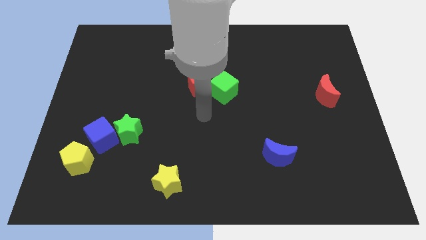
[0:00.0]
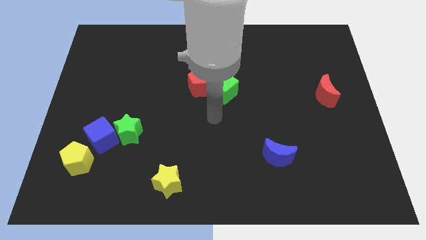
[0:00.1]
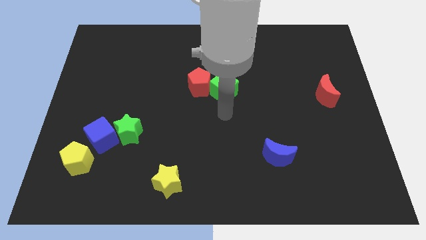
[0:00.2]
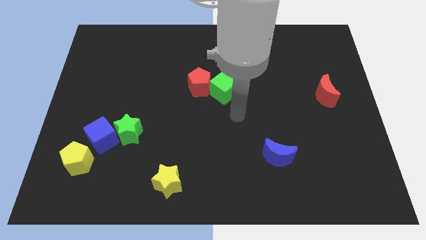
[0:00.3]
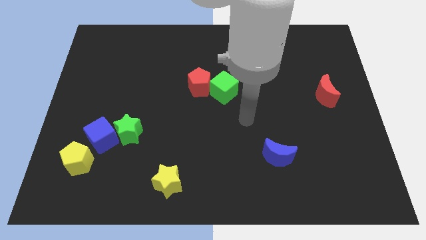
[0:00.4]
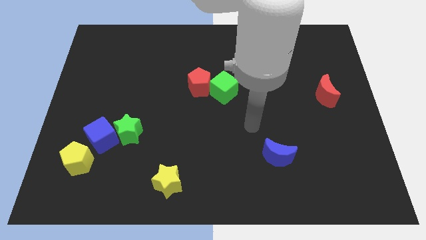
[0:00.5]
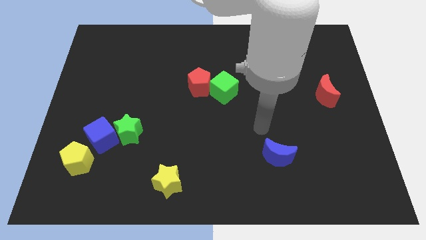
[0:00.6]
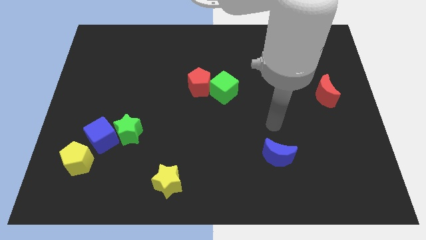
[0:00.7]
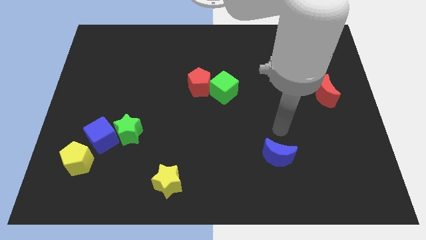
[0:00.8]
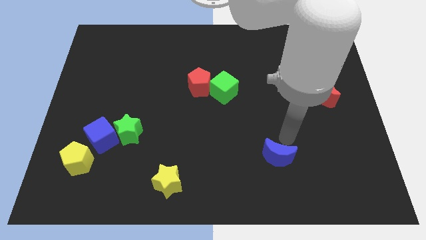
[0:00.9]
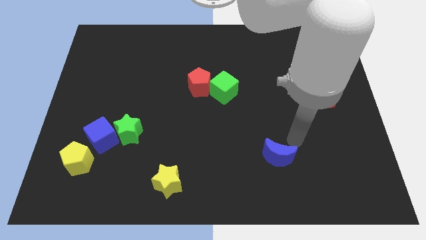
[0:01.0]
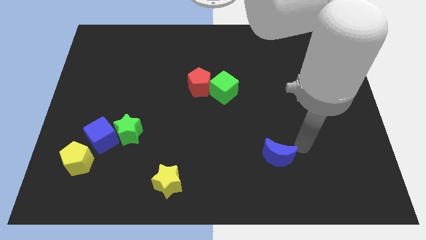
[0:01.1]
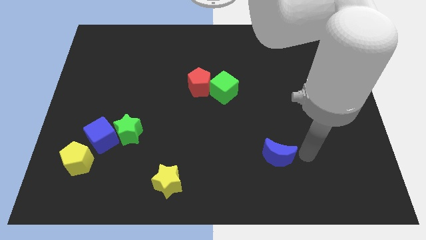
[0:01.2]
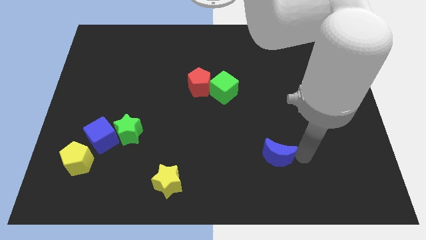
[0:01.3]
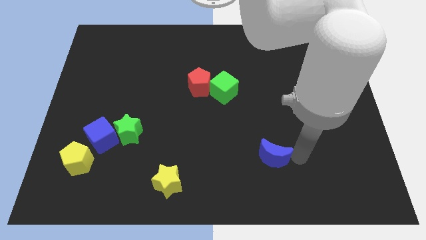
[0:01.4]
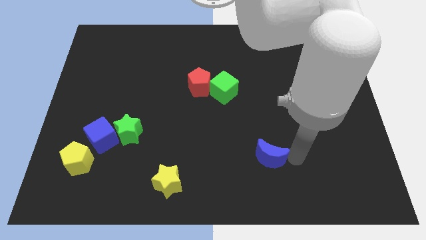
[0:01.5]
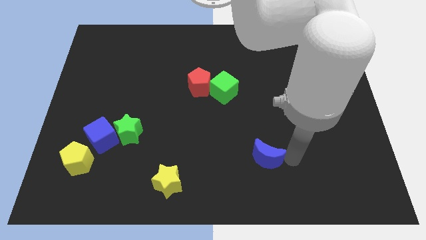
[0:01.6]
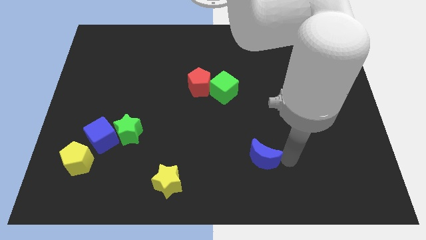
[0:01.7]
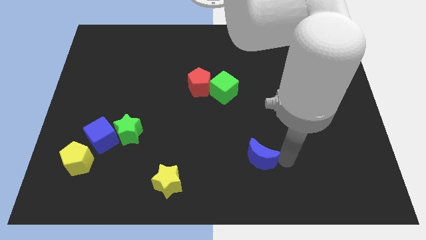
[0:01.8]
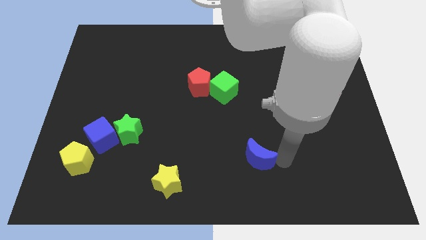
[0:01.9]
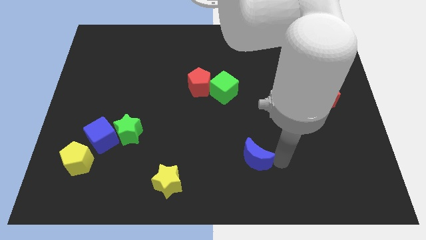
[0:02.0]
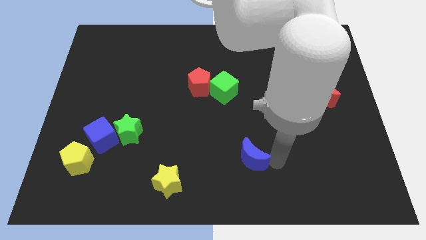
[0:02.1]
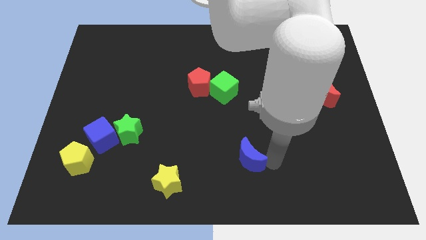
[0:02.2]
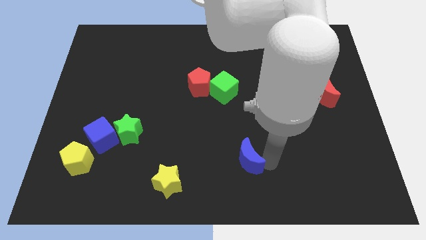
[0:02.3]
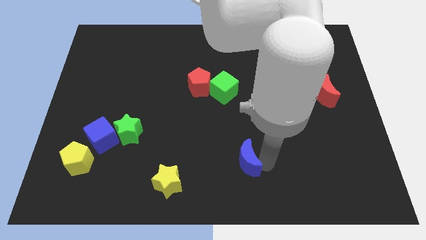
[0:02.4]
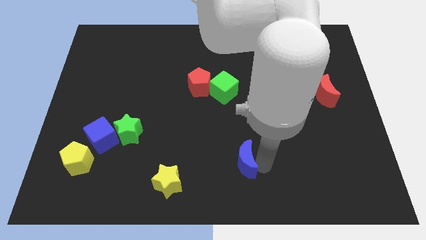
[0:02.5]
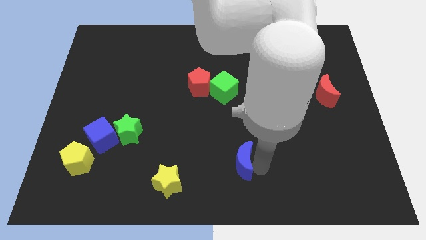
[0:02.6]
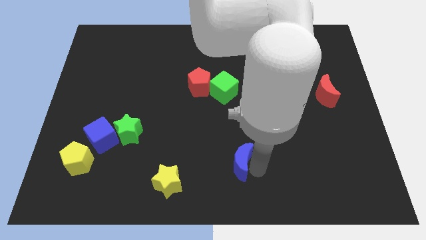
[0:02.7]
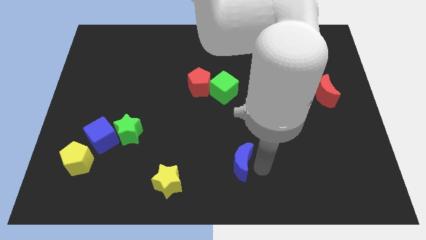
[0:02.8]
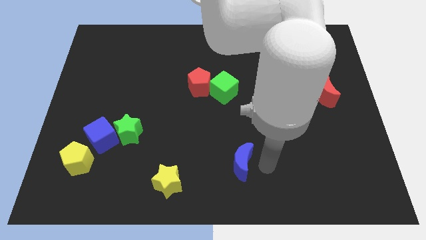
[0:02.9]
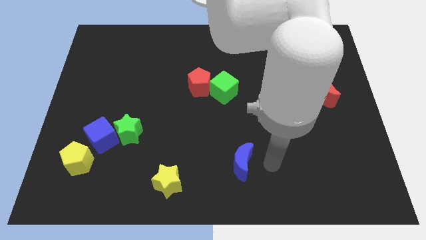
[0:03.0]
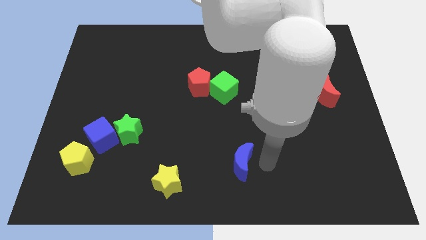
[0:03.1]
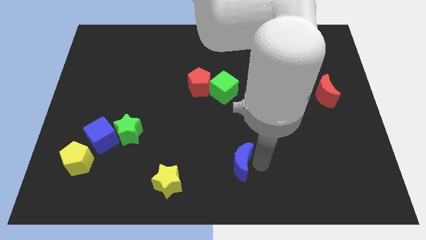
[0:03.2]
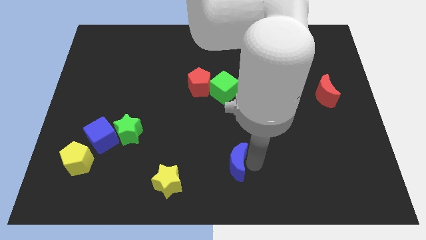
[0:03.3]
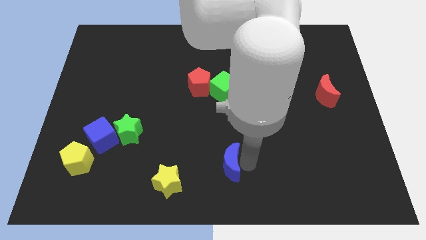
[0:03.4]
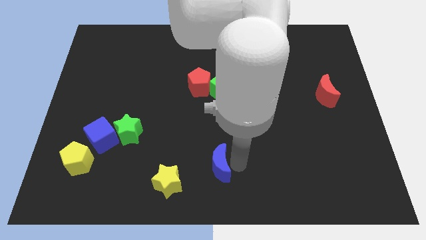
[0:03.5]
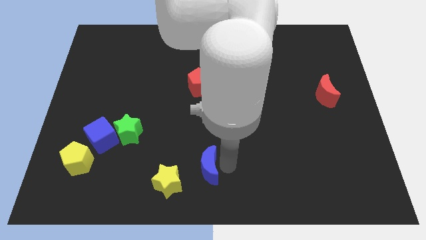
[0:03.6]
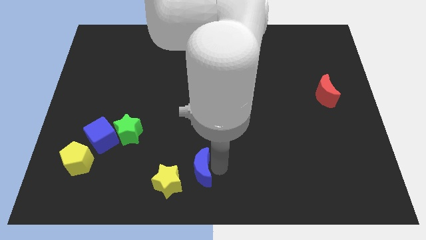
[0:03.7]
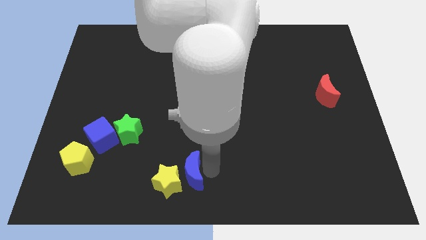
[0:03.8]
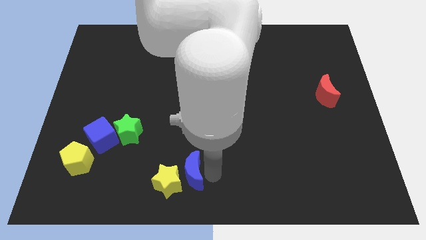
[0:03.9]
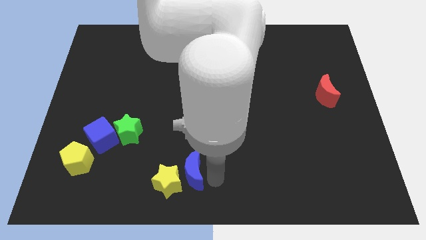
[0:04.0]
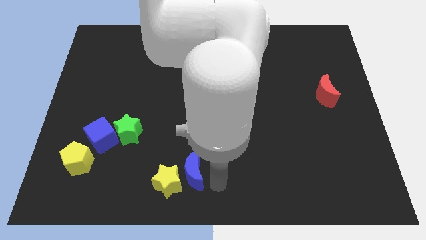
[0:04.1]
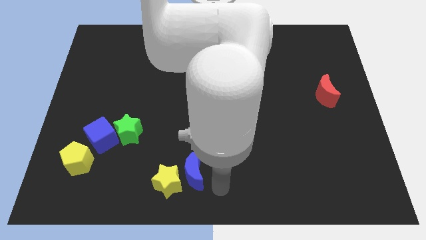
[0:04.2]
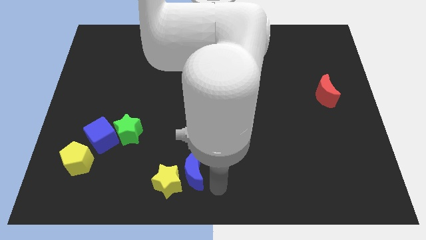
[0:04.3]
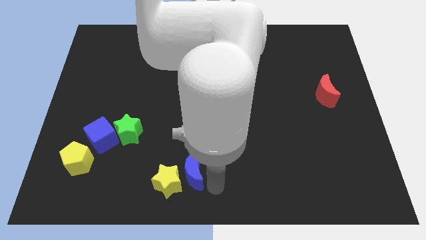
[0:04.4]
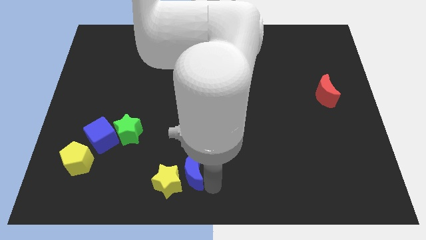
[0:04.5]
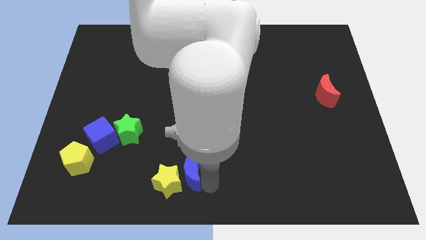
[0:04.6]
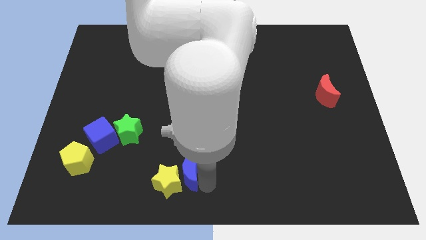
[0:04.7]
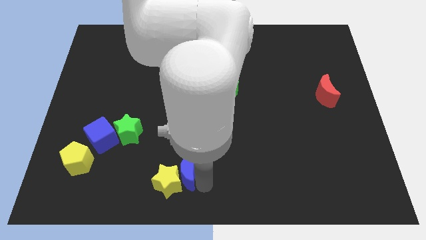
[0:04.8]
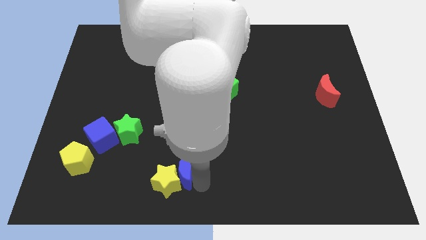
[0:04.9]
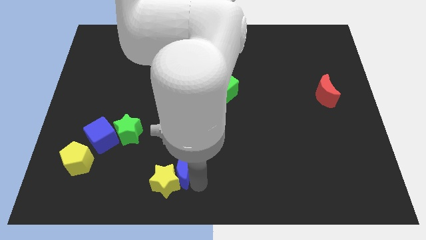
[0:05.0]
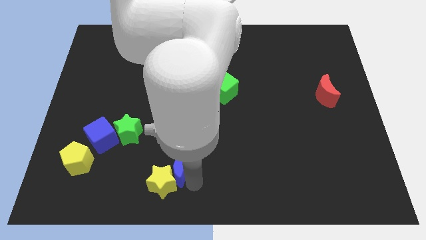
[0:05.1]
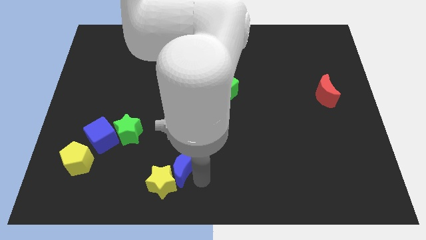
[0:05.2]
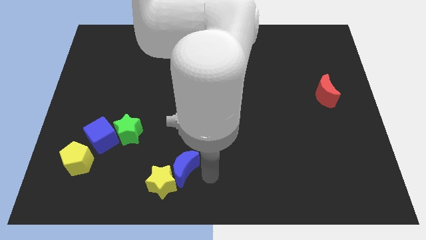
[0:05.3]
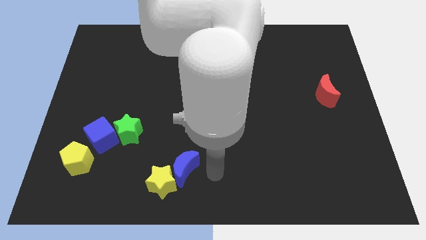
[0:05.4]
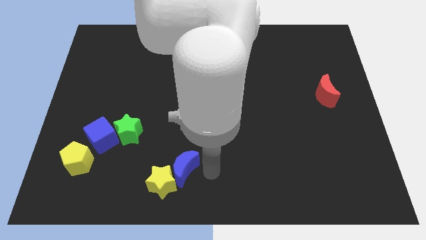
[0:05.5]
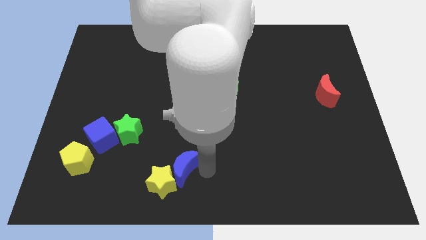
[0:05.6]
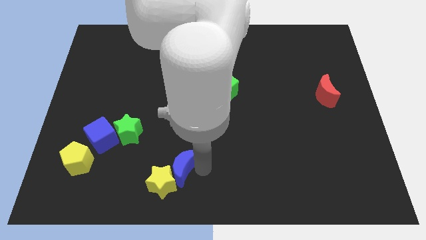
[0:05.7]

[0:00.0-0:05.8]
slide the blue moon left

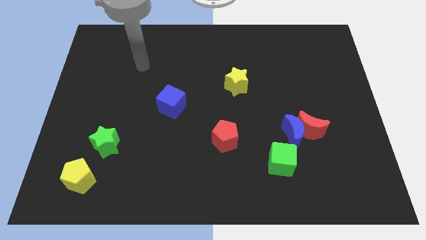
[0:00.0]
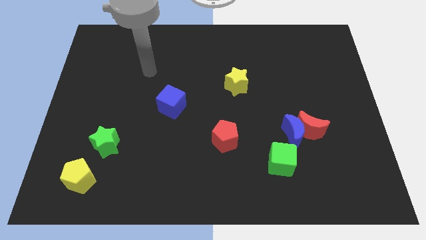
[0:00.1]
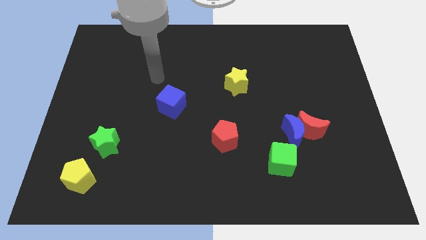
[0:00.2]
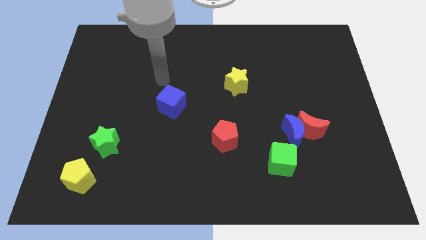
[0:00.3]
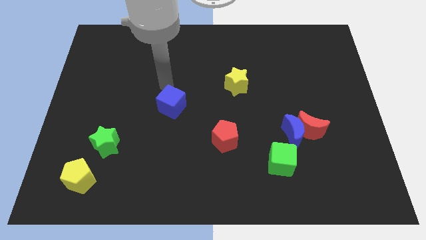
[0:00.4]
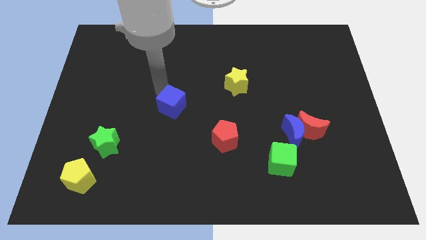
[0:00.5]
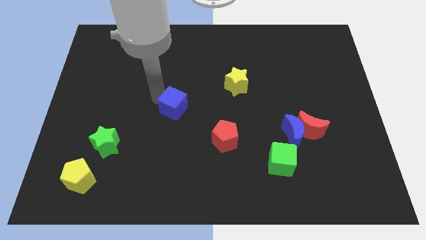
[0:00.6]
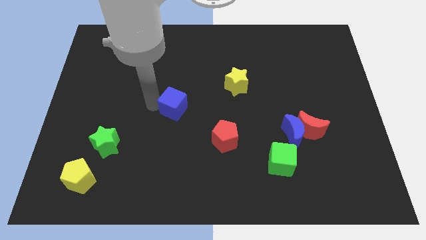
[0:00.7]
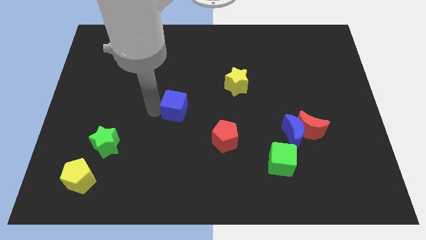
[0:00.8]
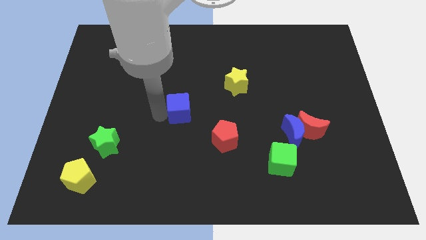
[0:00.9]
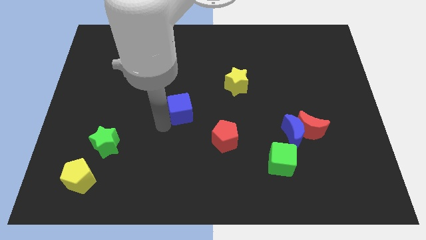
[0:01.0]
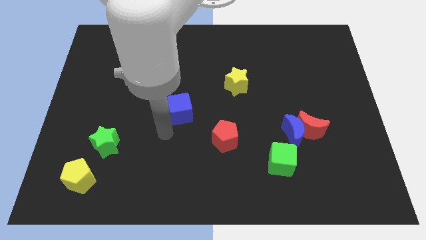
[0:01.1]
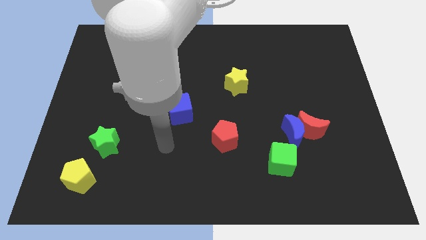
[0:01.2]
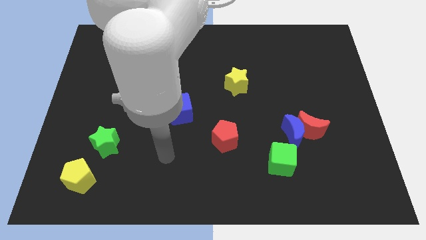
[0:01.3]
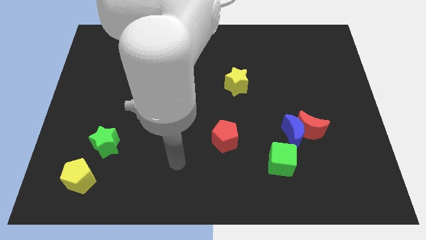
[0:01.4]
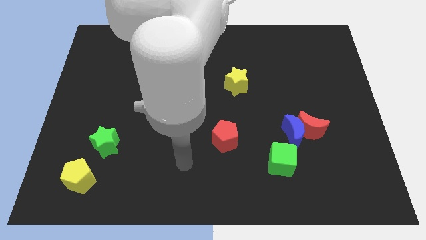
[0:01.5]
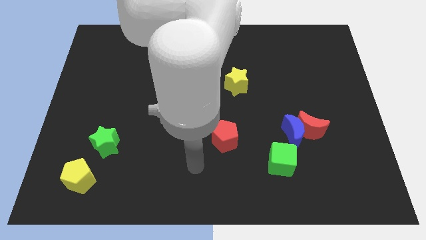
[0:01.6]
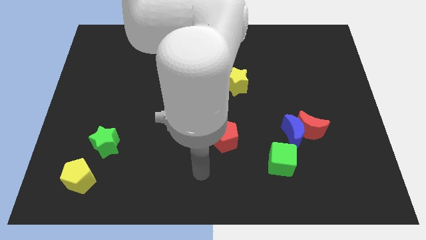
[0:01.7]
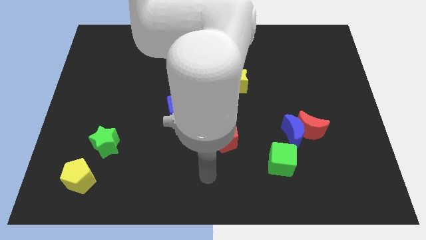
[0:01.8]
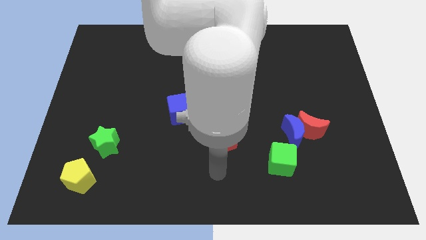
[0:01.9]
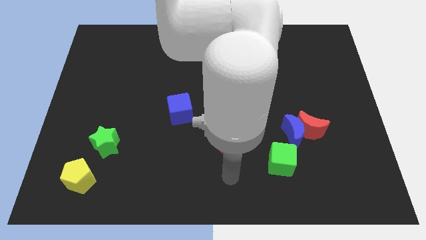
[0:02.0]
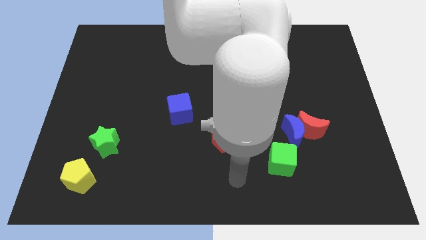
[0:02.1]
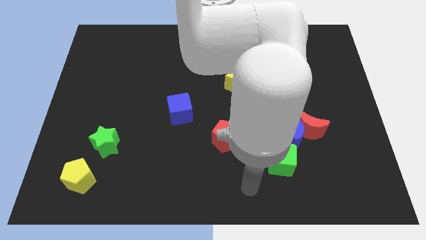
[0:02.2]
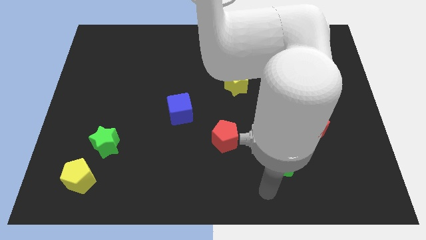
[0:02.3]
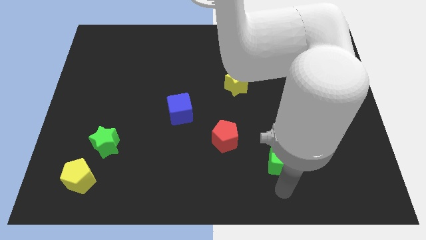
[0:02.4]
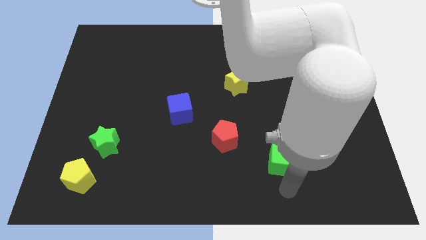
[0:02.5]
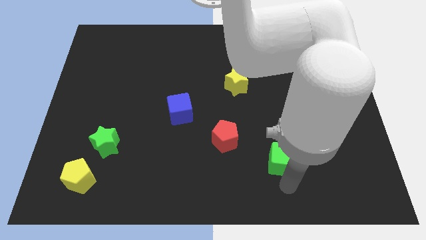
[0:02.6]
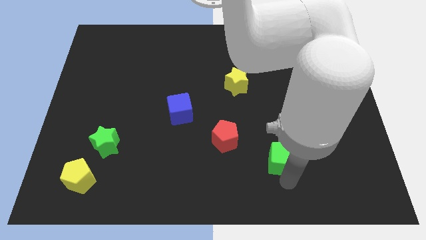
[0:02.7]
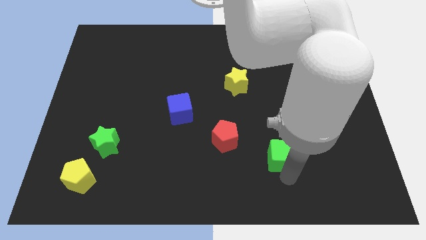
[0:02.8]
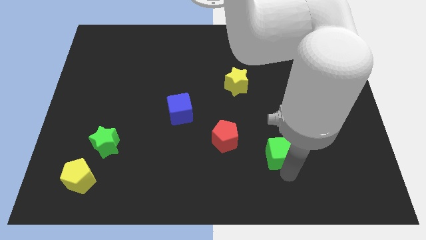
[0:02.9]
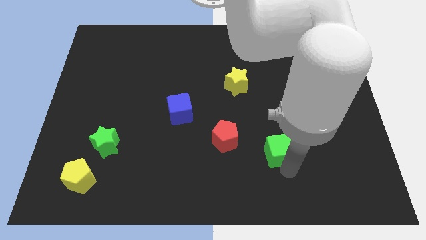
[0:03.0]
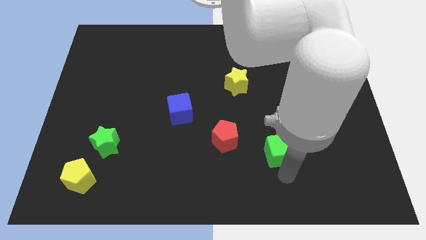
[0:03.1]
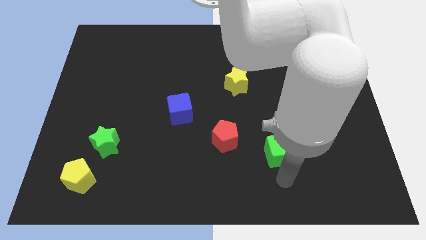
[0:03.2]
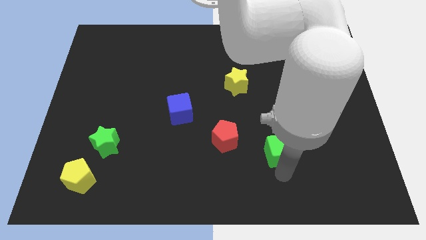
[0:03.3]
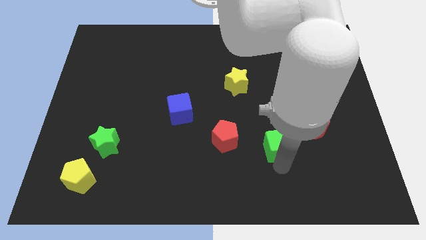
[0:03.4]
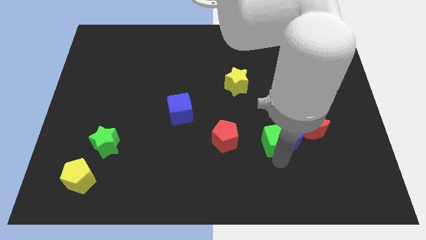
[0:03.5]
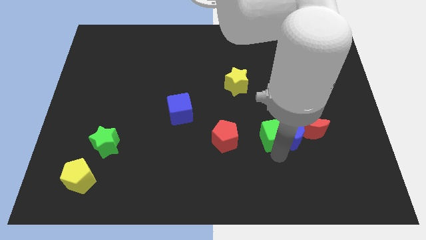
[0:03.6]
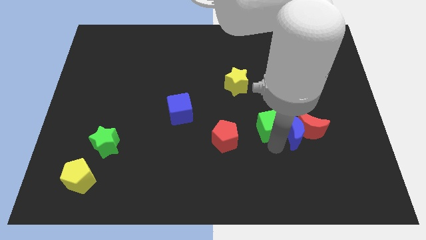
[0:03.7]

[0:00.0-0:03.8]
push the green cube upwards a little
